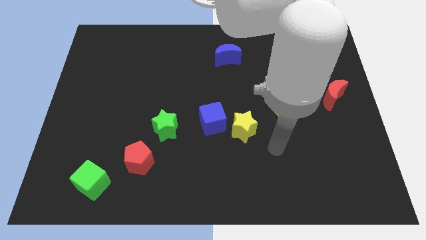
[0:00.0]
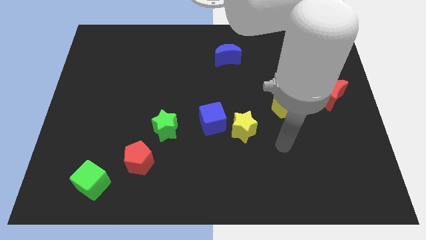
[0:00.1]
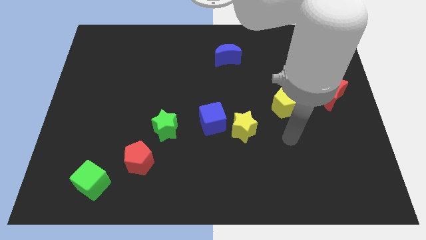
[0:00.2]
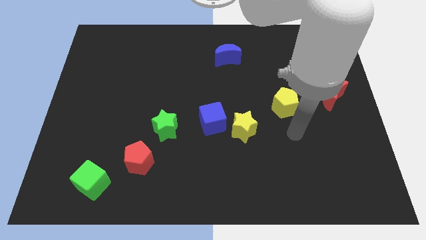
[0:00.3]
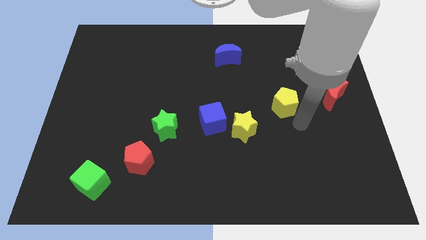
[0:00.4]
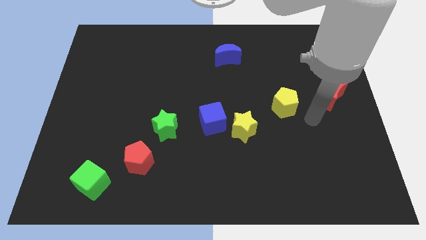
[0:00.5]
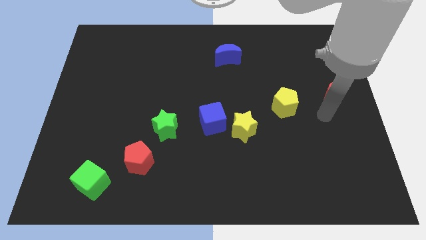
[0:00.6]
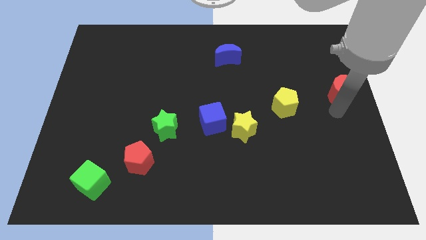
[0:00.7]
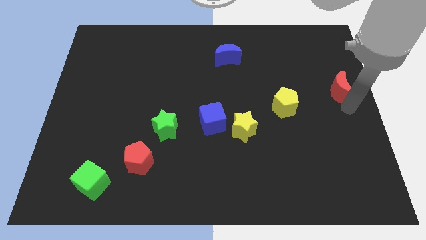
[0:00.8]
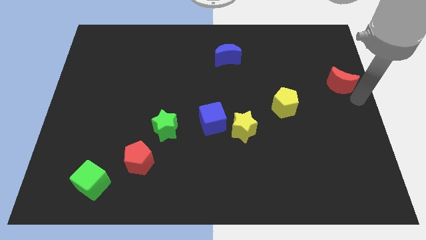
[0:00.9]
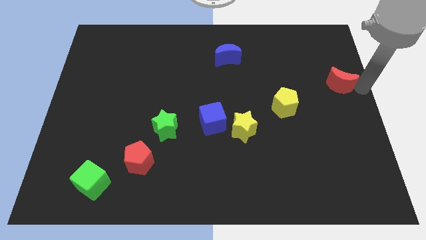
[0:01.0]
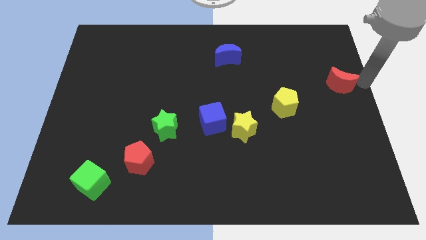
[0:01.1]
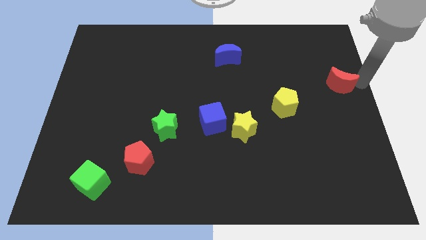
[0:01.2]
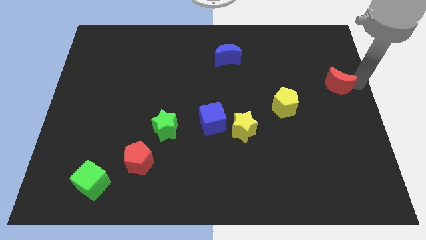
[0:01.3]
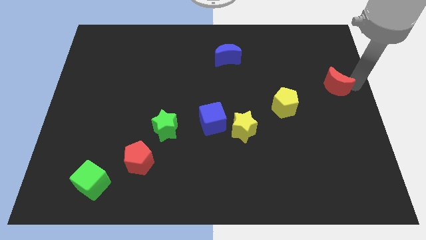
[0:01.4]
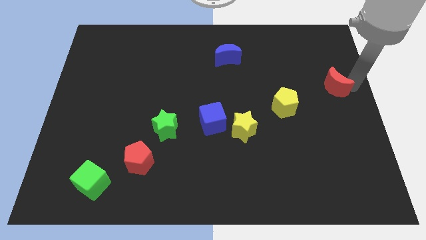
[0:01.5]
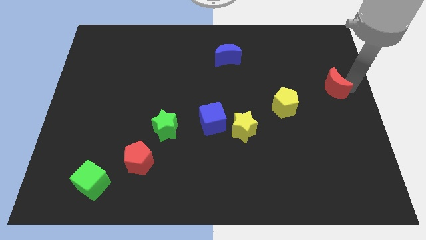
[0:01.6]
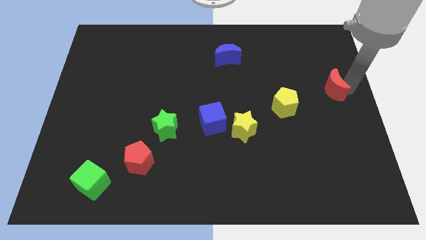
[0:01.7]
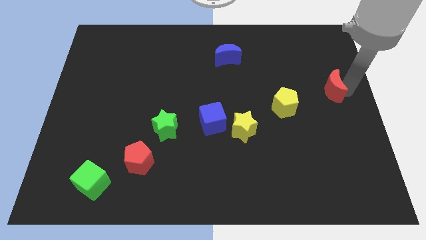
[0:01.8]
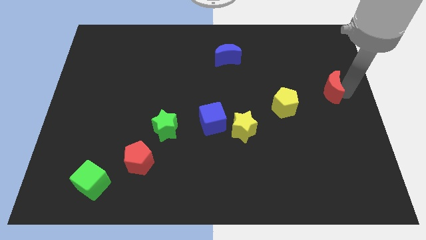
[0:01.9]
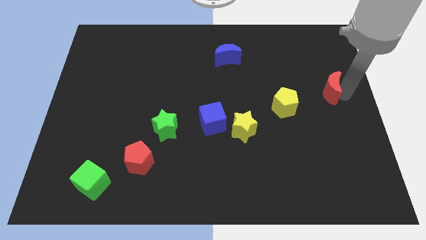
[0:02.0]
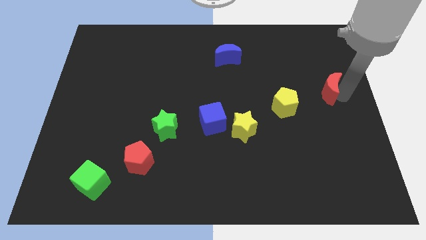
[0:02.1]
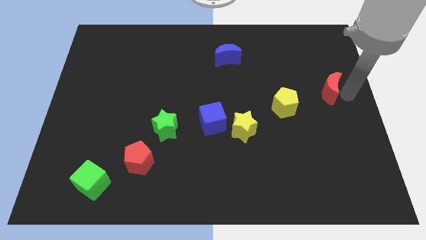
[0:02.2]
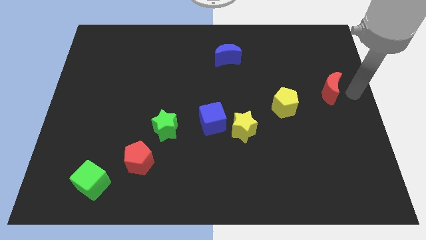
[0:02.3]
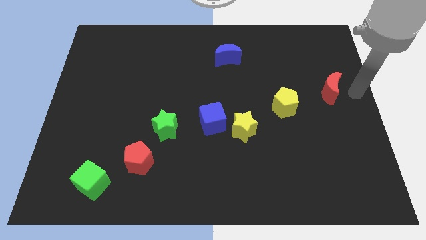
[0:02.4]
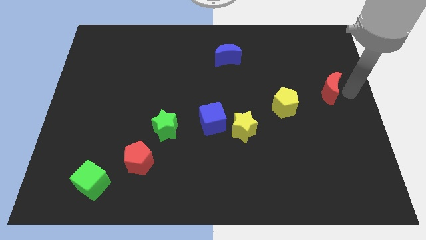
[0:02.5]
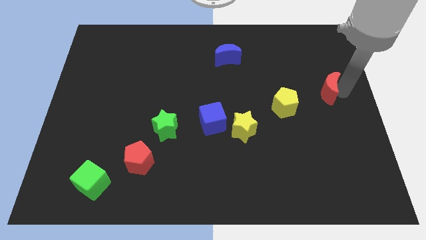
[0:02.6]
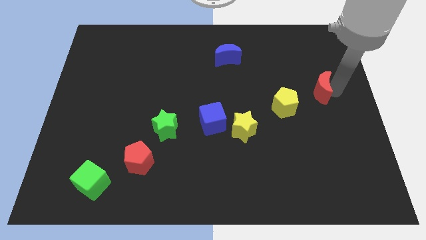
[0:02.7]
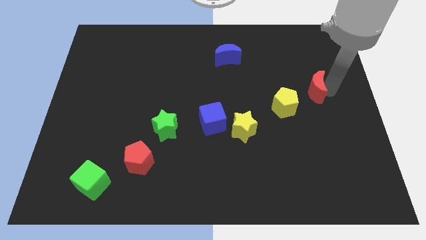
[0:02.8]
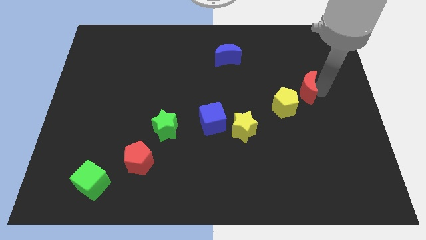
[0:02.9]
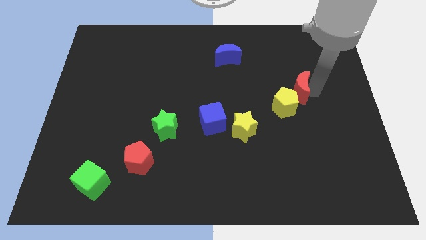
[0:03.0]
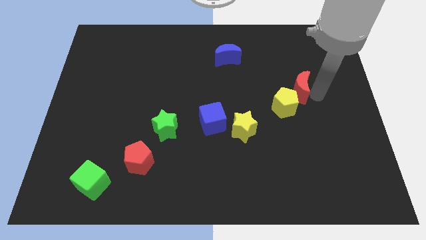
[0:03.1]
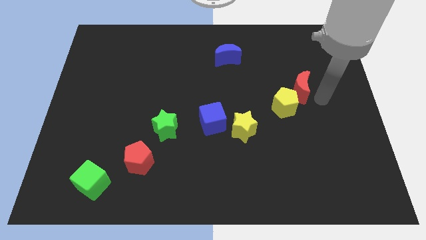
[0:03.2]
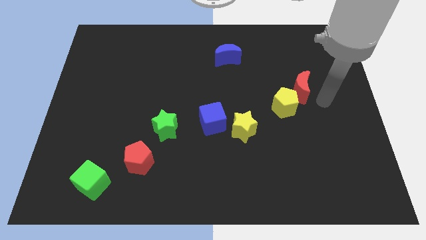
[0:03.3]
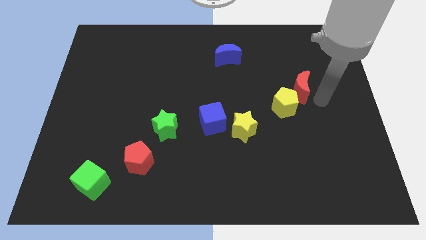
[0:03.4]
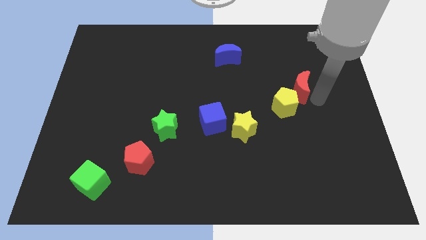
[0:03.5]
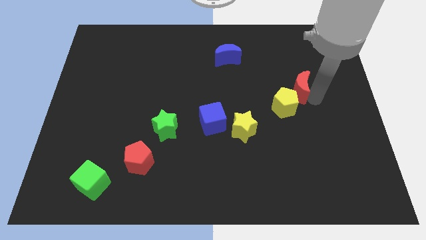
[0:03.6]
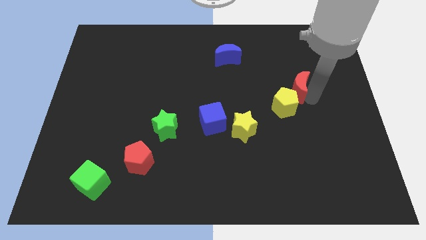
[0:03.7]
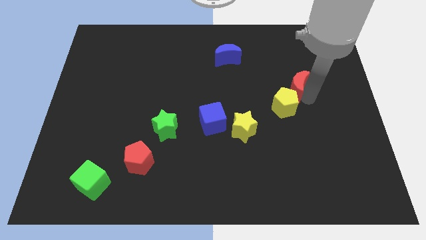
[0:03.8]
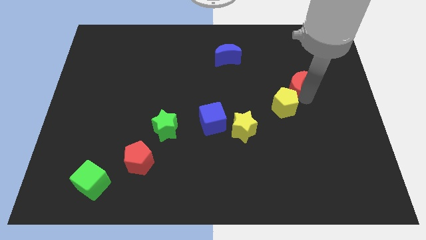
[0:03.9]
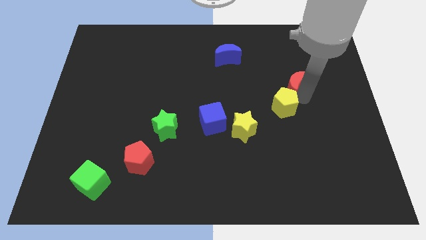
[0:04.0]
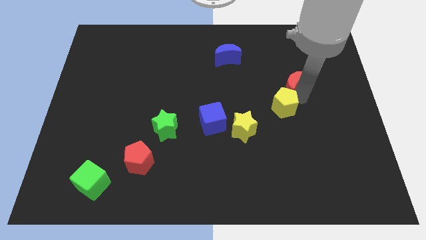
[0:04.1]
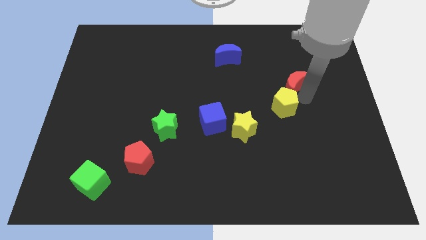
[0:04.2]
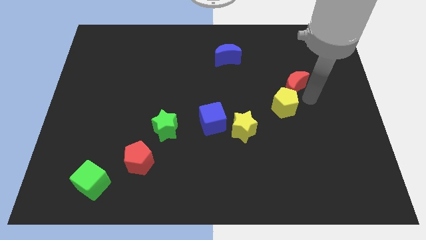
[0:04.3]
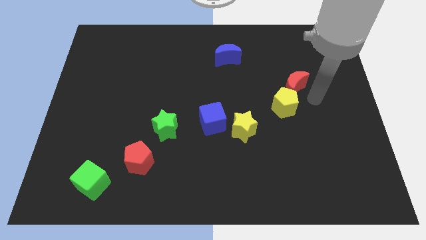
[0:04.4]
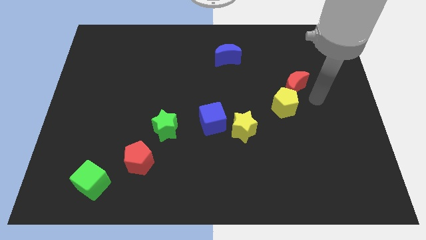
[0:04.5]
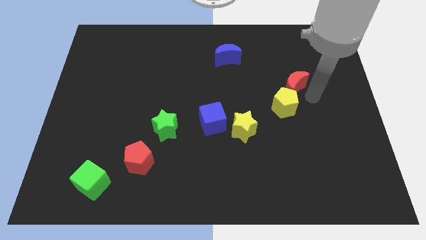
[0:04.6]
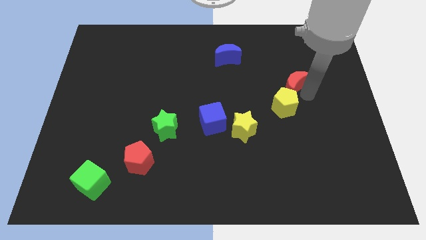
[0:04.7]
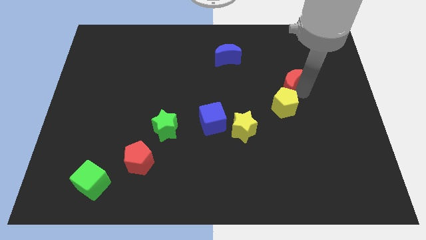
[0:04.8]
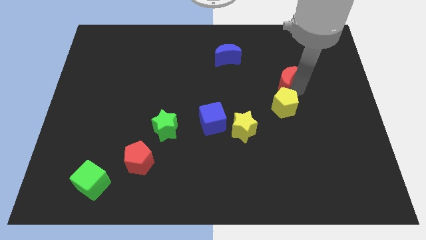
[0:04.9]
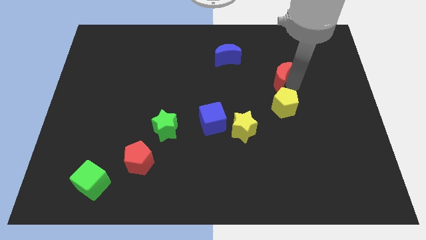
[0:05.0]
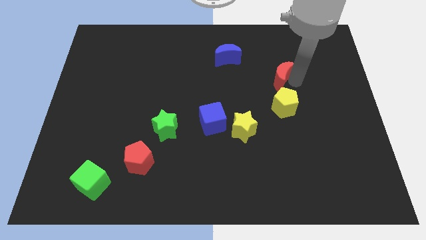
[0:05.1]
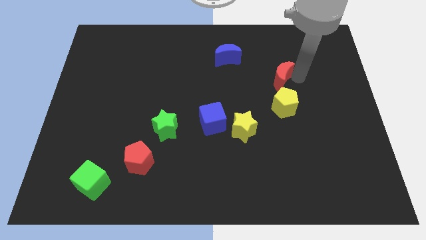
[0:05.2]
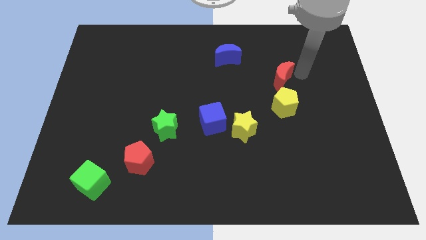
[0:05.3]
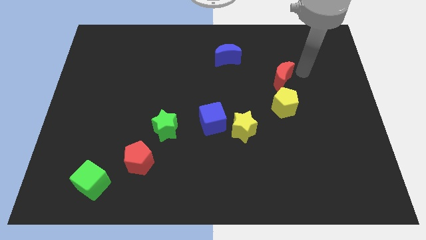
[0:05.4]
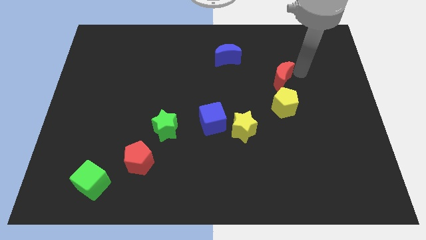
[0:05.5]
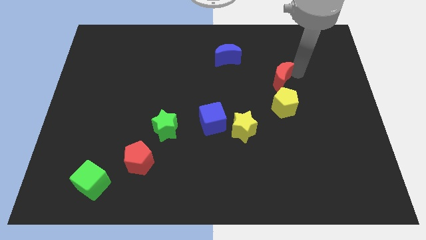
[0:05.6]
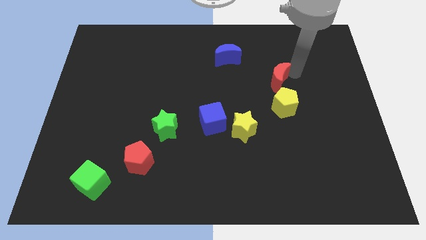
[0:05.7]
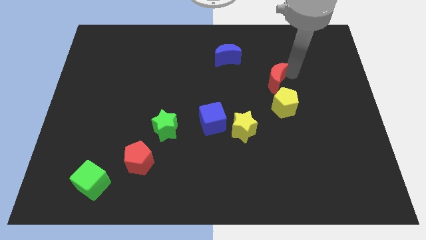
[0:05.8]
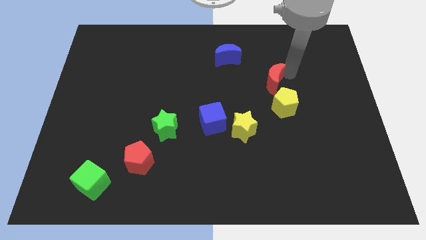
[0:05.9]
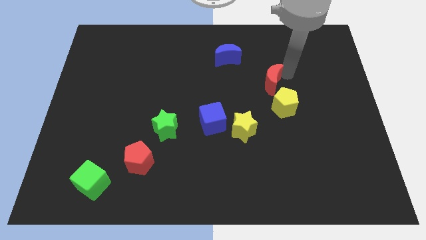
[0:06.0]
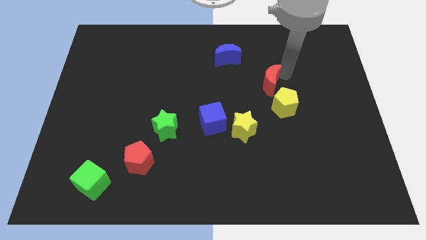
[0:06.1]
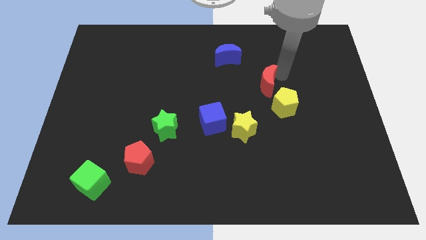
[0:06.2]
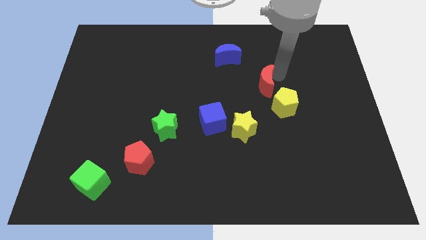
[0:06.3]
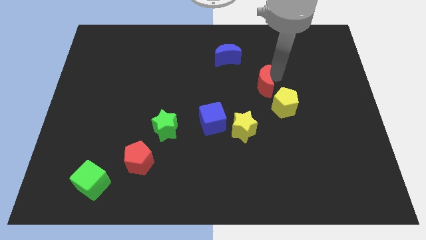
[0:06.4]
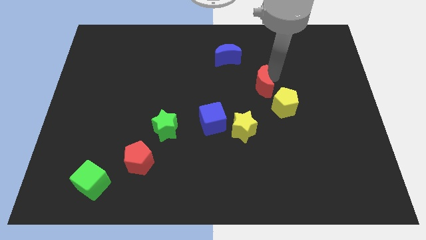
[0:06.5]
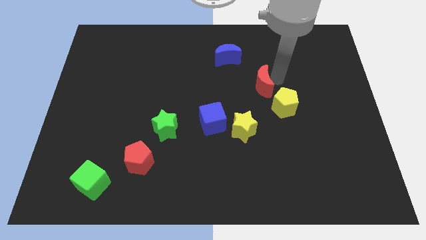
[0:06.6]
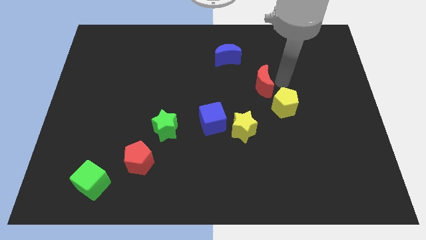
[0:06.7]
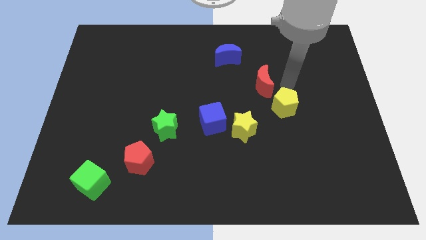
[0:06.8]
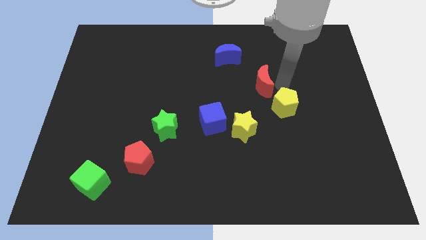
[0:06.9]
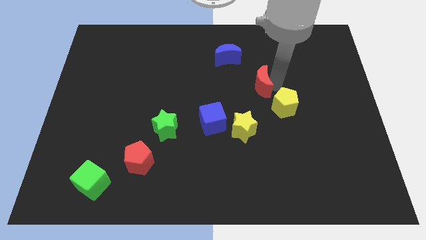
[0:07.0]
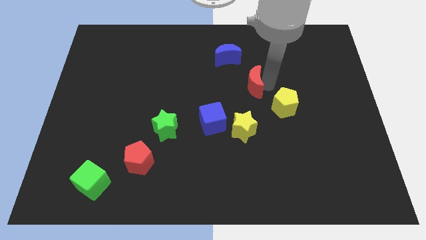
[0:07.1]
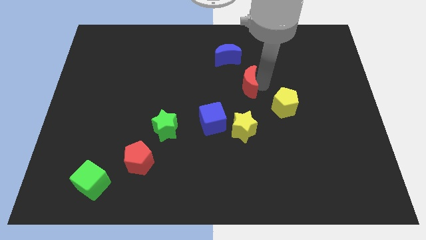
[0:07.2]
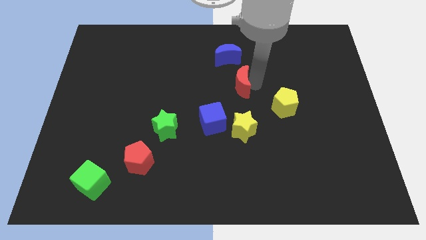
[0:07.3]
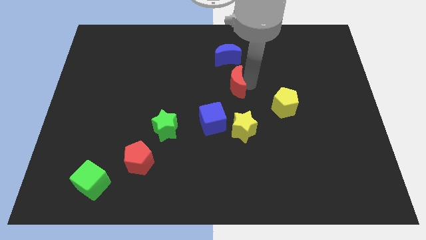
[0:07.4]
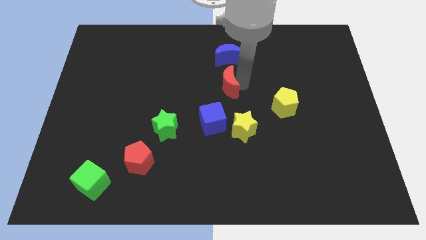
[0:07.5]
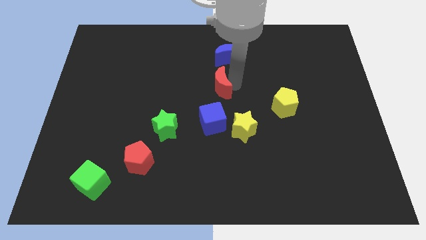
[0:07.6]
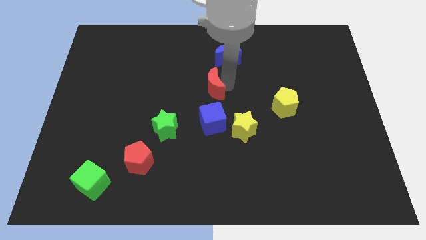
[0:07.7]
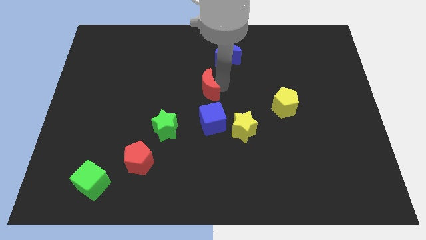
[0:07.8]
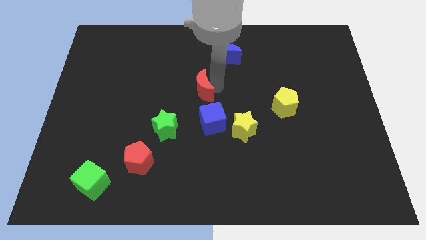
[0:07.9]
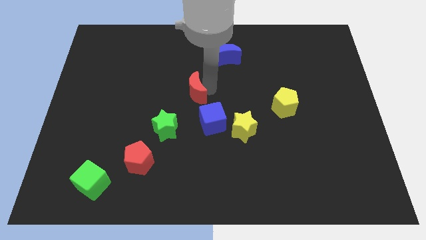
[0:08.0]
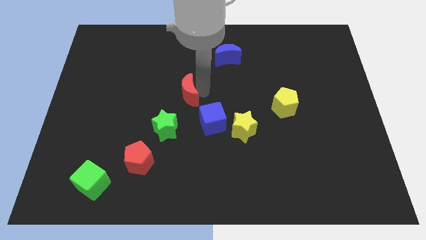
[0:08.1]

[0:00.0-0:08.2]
put the red moon above the green star
